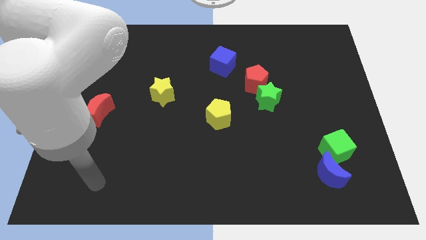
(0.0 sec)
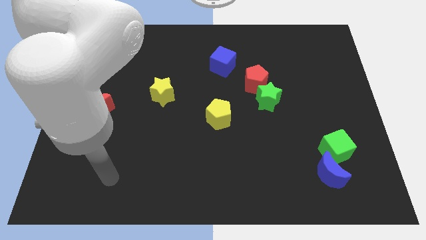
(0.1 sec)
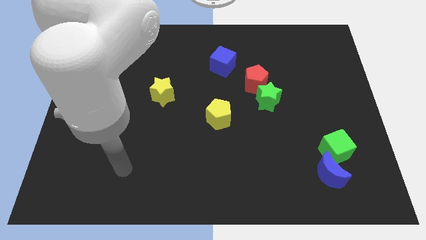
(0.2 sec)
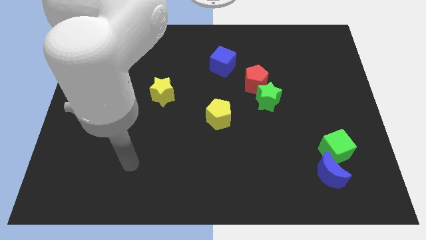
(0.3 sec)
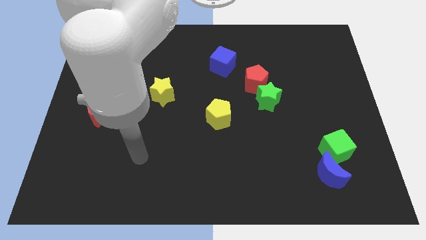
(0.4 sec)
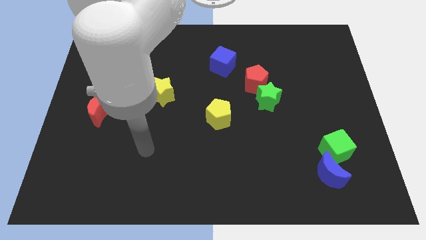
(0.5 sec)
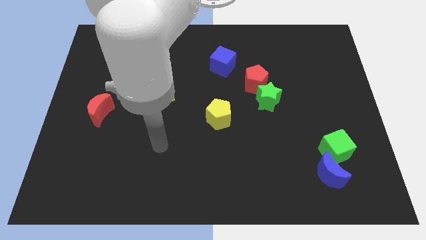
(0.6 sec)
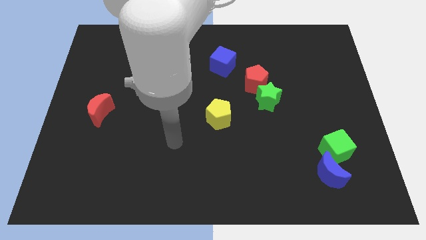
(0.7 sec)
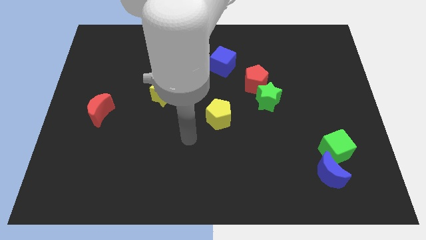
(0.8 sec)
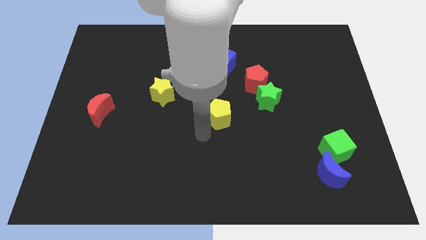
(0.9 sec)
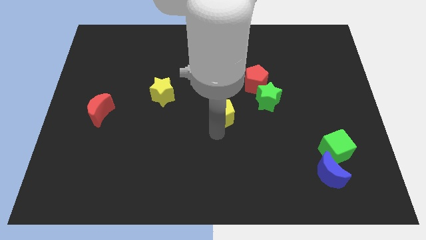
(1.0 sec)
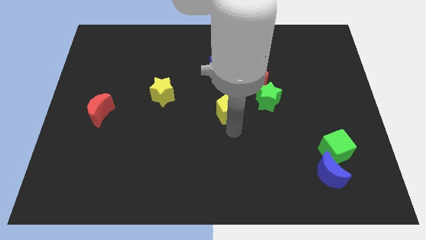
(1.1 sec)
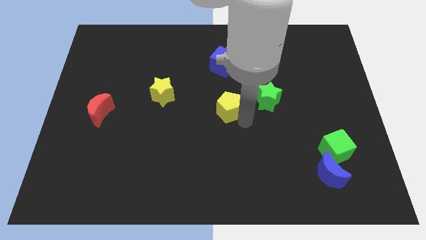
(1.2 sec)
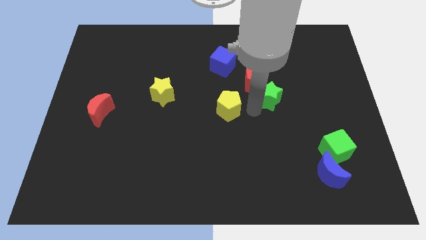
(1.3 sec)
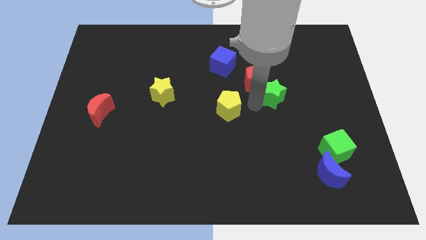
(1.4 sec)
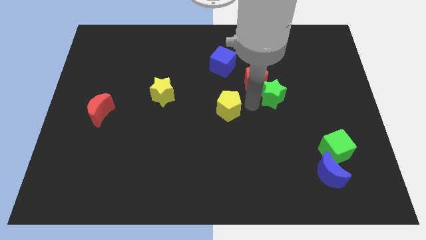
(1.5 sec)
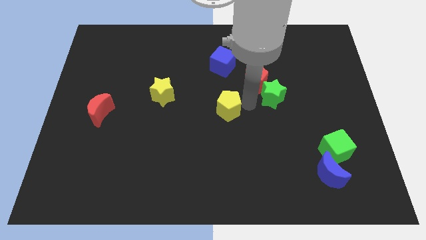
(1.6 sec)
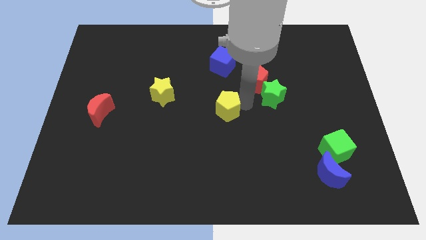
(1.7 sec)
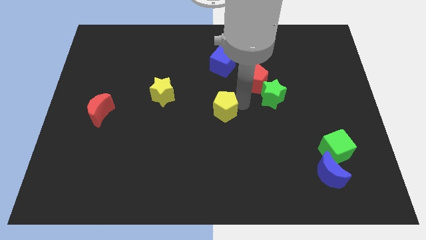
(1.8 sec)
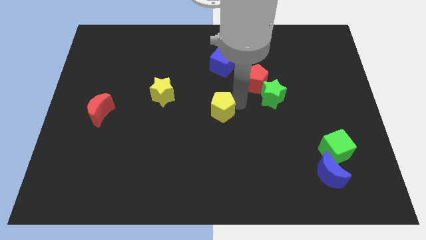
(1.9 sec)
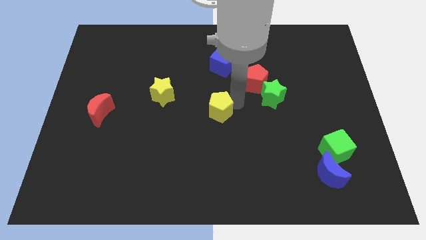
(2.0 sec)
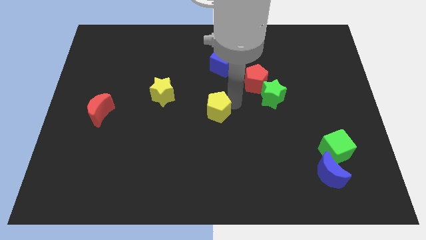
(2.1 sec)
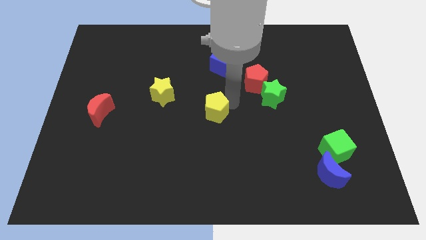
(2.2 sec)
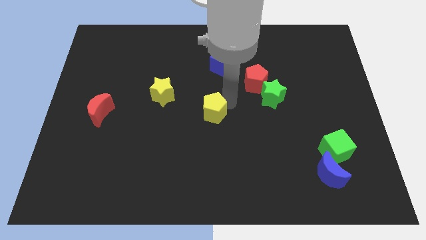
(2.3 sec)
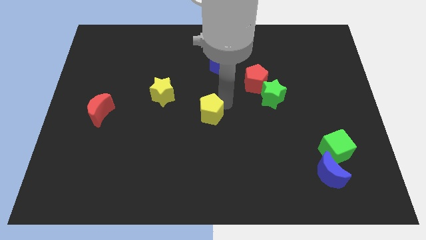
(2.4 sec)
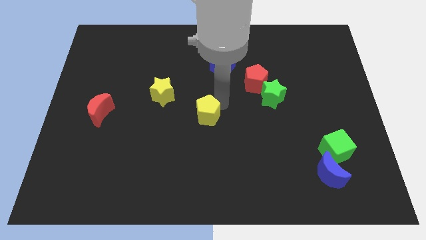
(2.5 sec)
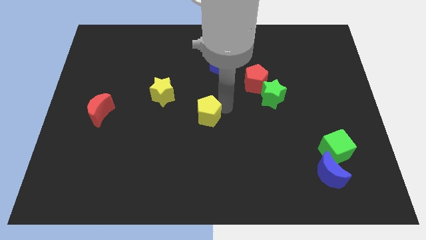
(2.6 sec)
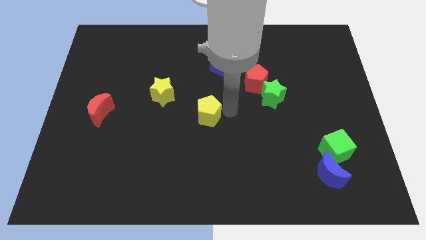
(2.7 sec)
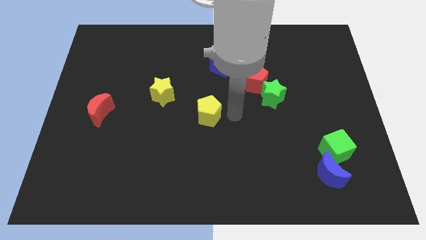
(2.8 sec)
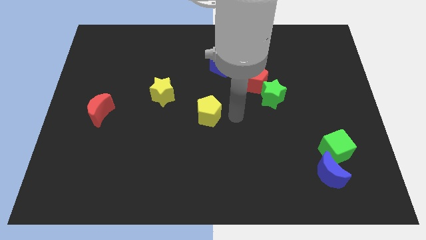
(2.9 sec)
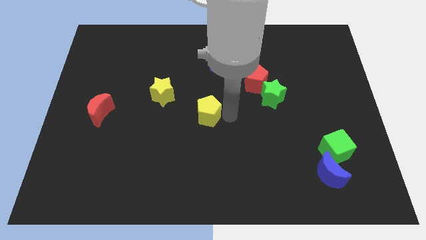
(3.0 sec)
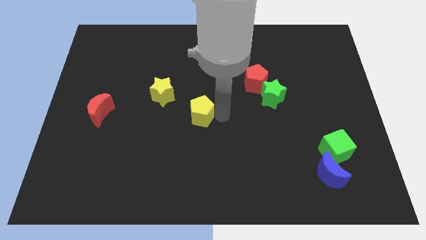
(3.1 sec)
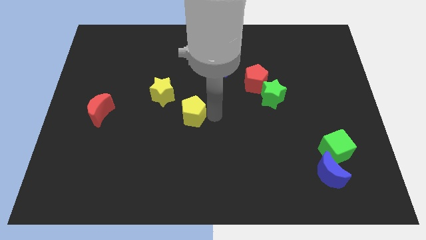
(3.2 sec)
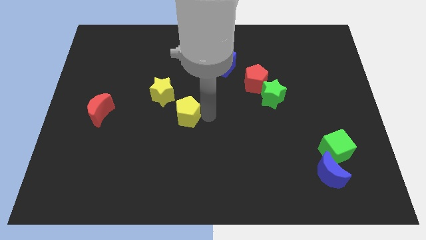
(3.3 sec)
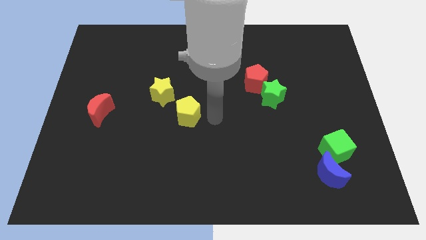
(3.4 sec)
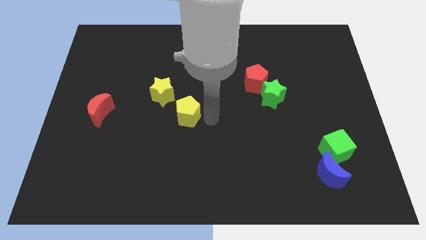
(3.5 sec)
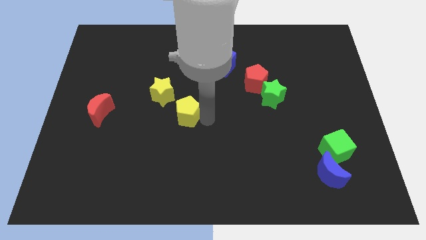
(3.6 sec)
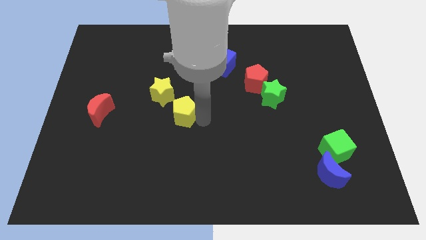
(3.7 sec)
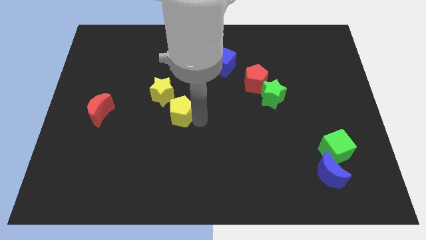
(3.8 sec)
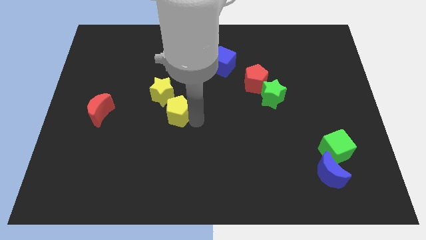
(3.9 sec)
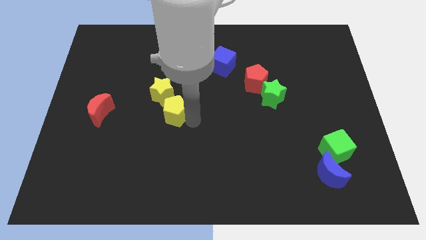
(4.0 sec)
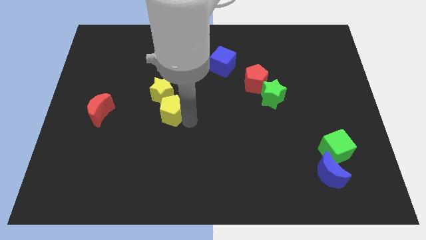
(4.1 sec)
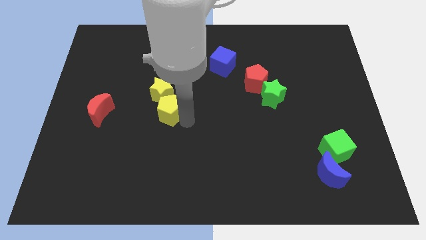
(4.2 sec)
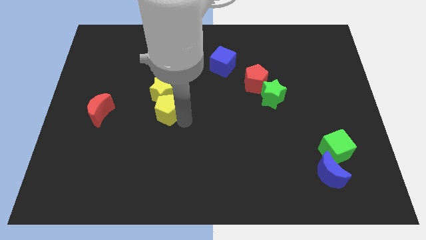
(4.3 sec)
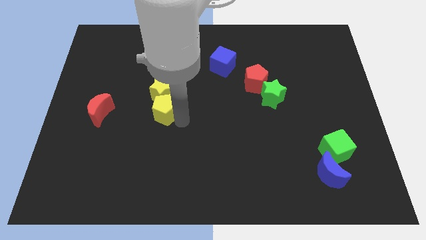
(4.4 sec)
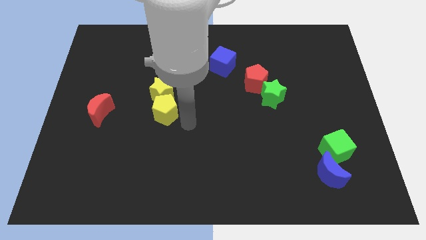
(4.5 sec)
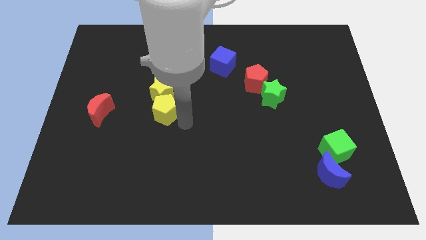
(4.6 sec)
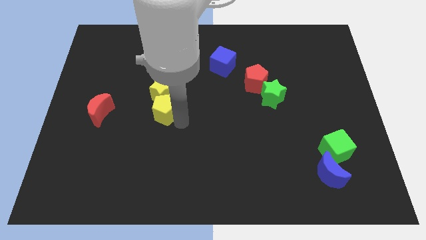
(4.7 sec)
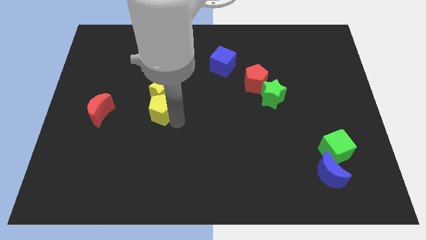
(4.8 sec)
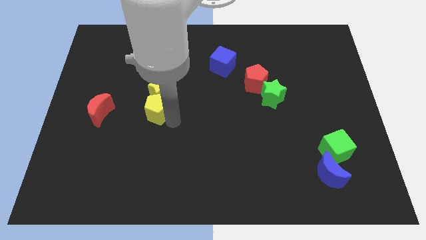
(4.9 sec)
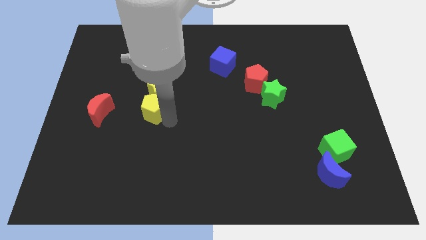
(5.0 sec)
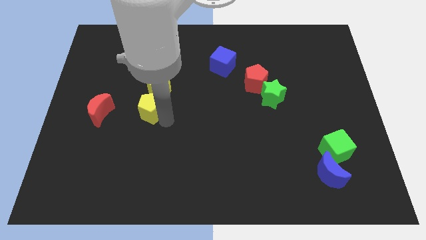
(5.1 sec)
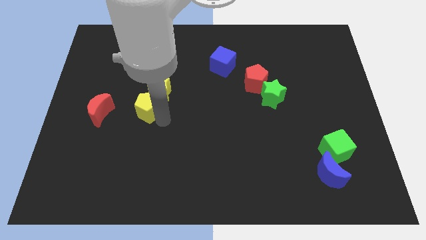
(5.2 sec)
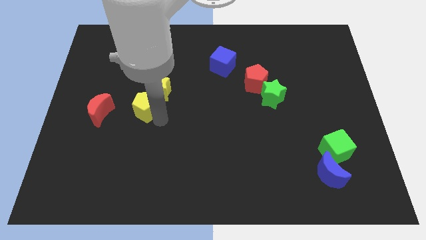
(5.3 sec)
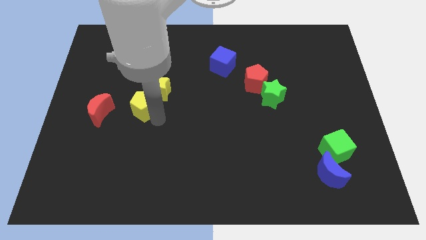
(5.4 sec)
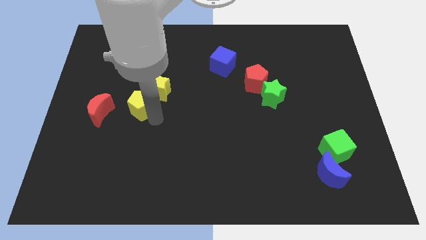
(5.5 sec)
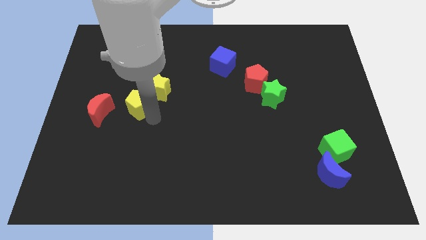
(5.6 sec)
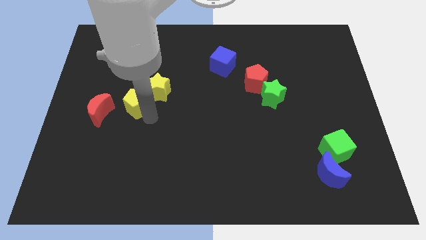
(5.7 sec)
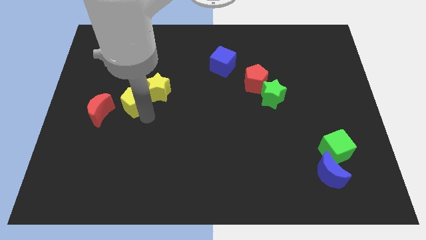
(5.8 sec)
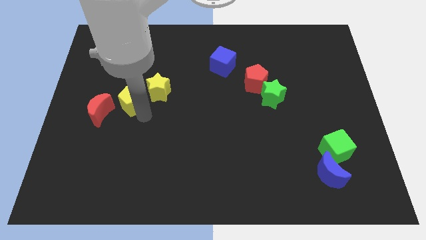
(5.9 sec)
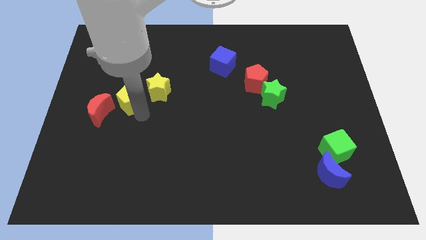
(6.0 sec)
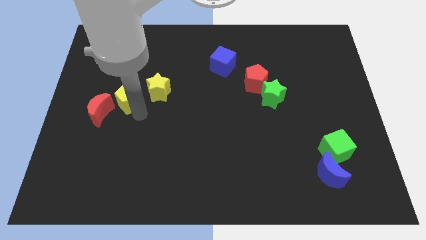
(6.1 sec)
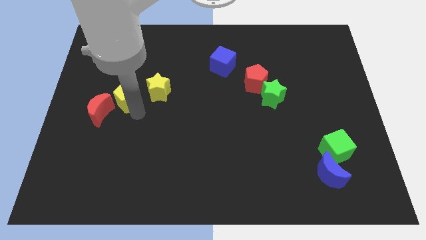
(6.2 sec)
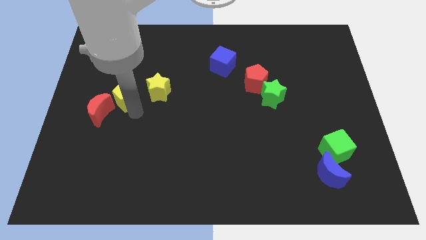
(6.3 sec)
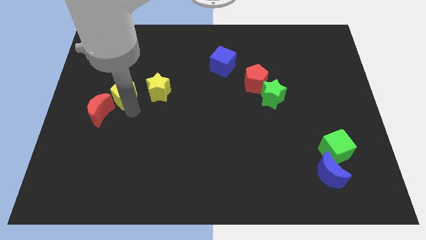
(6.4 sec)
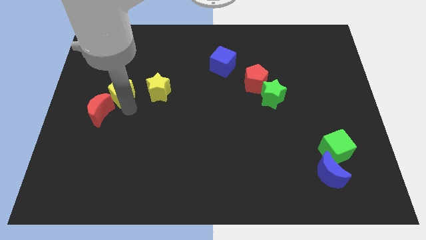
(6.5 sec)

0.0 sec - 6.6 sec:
push the yellow pentagon to the top side of the red moon

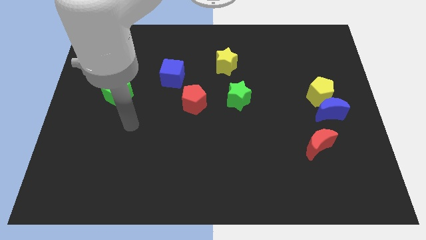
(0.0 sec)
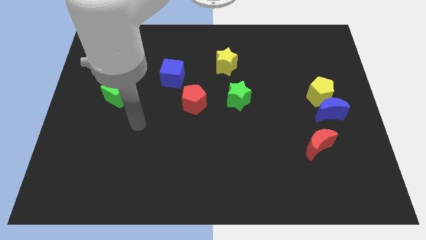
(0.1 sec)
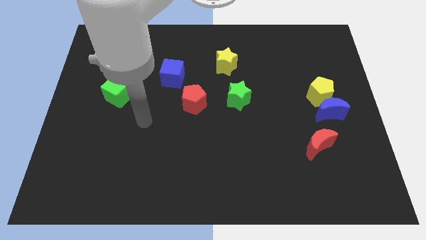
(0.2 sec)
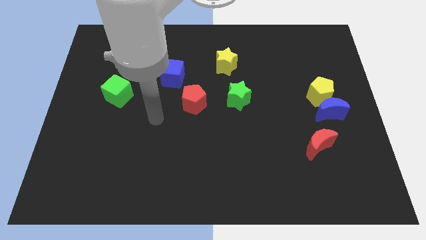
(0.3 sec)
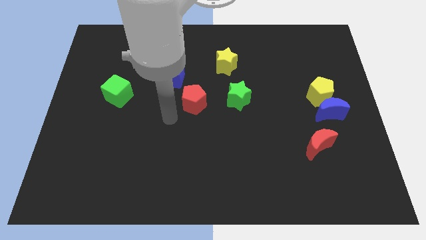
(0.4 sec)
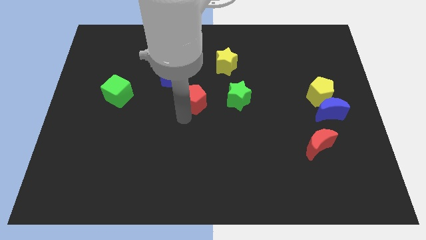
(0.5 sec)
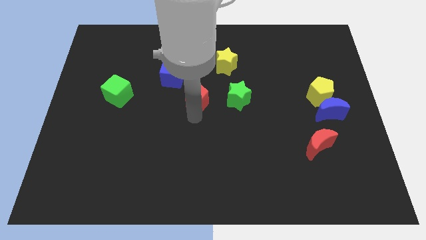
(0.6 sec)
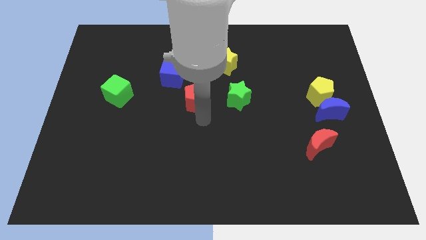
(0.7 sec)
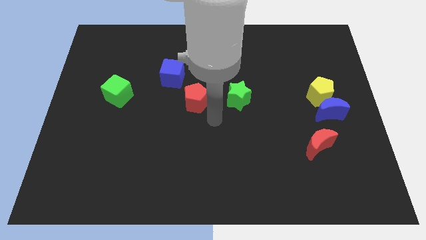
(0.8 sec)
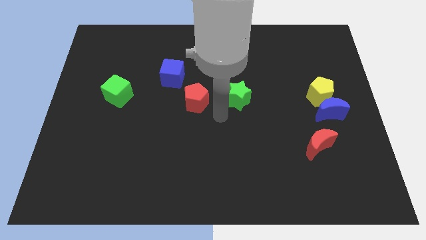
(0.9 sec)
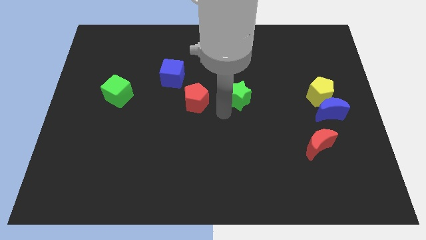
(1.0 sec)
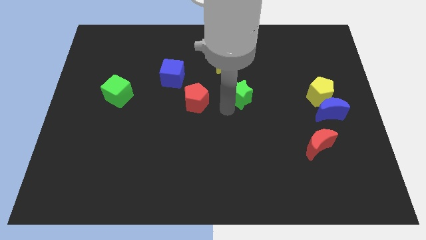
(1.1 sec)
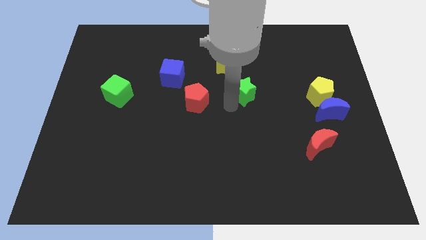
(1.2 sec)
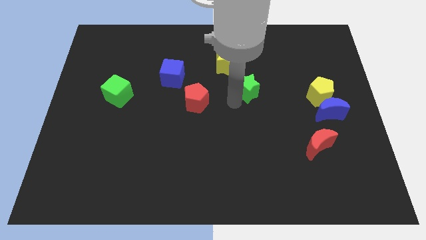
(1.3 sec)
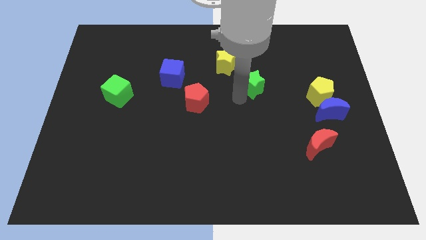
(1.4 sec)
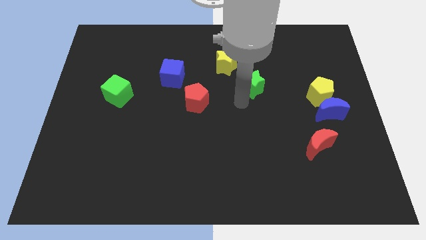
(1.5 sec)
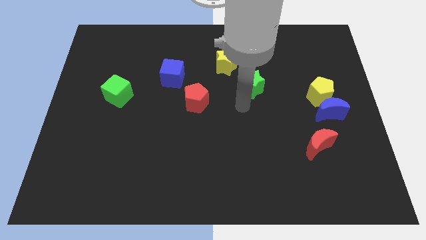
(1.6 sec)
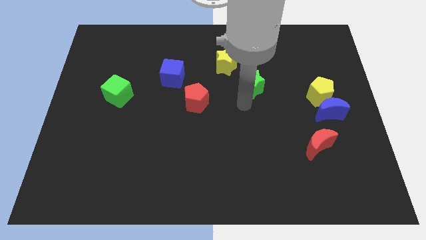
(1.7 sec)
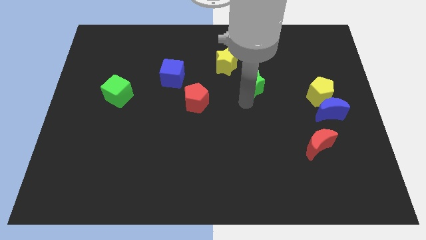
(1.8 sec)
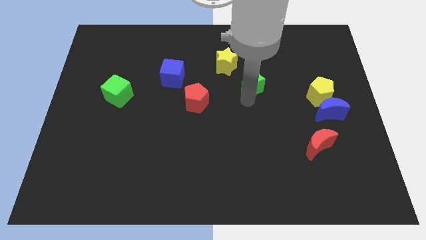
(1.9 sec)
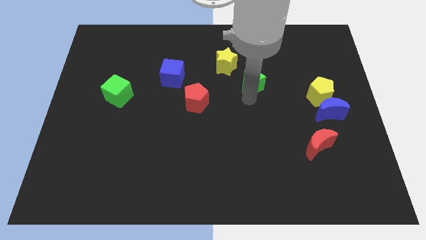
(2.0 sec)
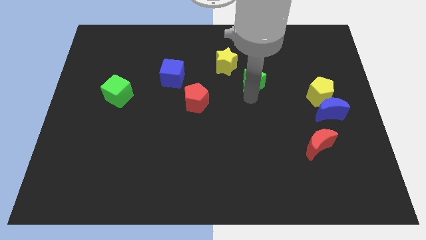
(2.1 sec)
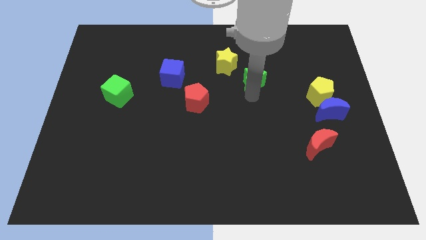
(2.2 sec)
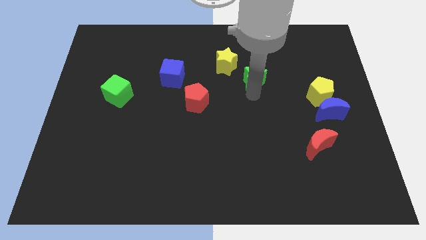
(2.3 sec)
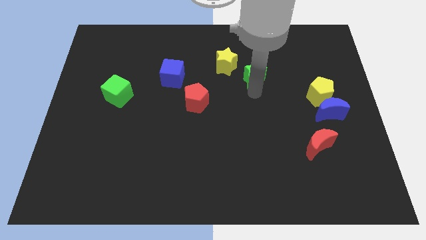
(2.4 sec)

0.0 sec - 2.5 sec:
put the green star to the right of the yellow star
